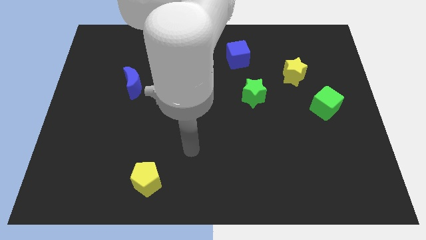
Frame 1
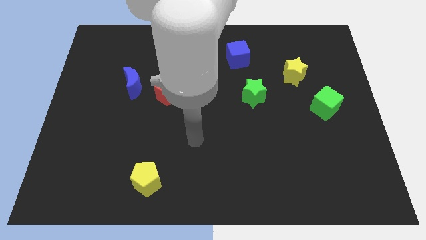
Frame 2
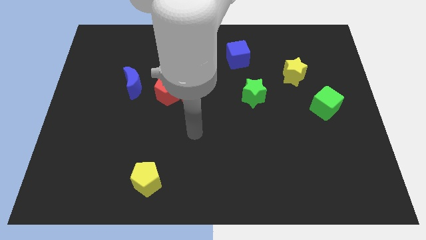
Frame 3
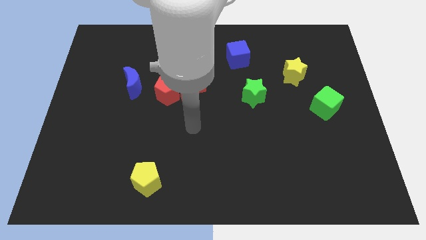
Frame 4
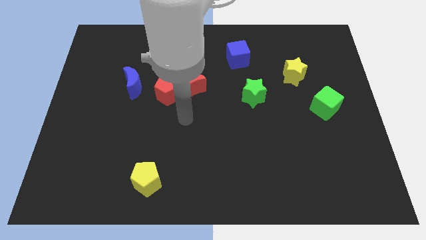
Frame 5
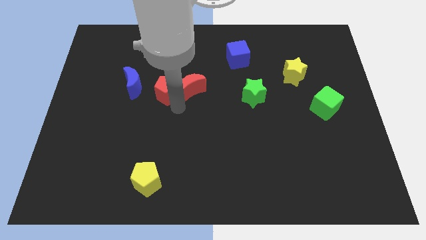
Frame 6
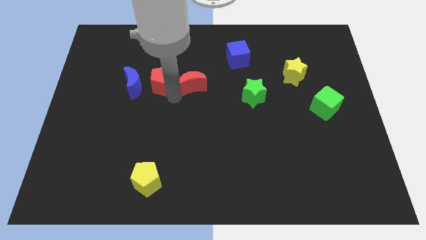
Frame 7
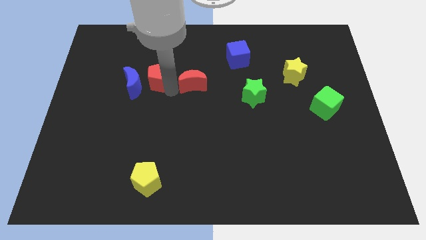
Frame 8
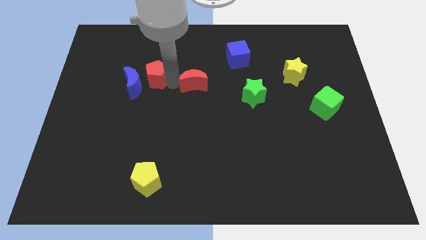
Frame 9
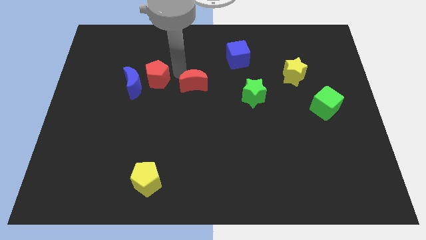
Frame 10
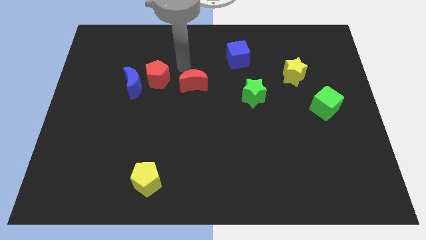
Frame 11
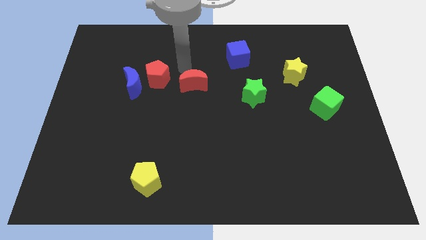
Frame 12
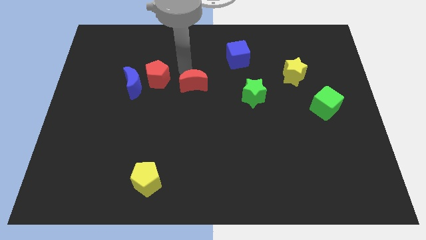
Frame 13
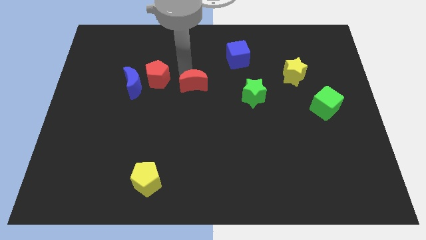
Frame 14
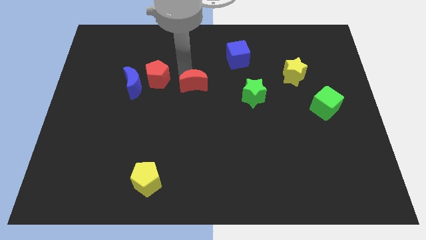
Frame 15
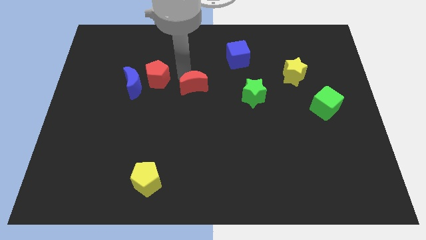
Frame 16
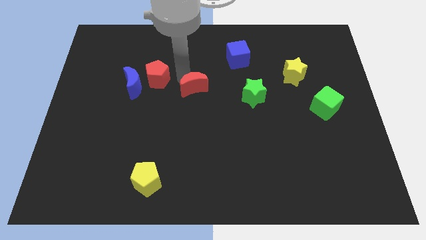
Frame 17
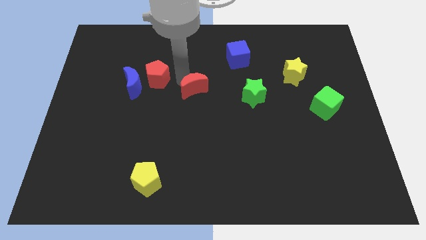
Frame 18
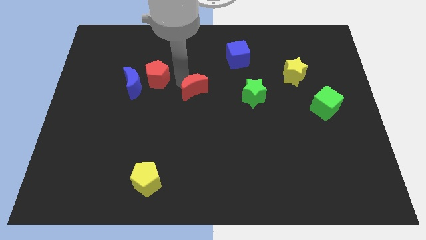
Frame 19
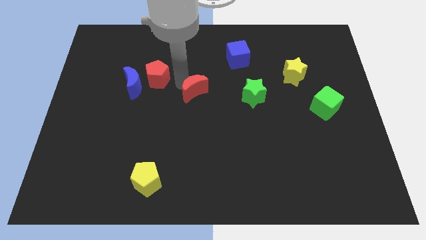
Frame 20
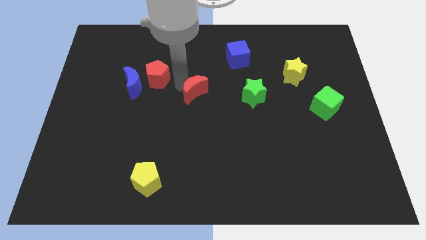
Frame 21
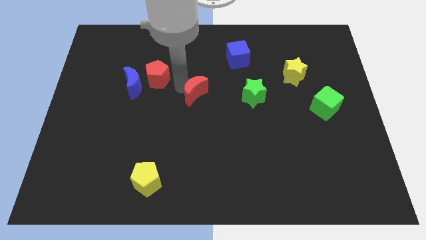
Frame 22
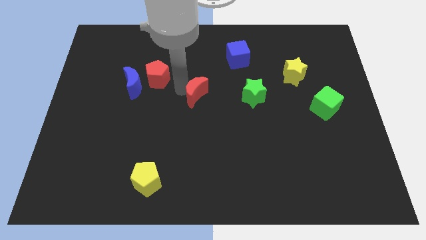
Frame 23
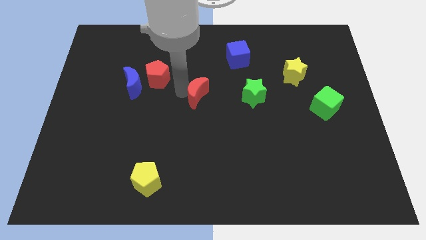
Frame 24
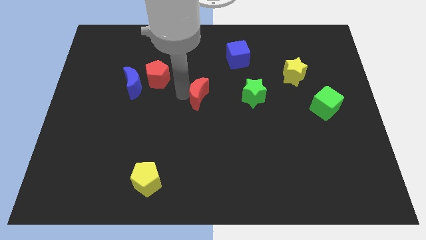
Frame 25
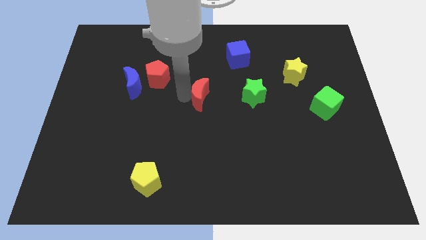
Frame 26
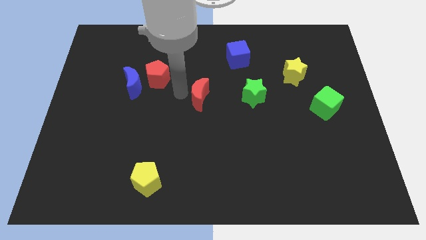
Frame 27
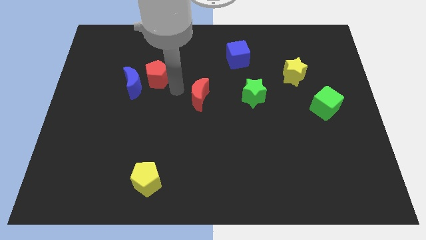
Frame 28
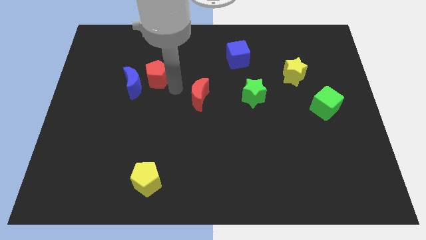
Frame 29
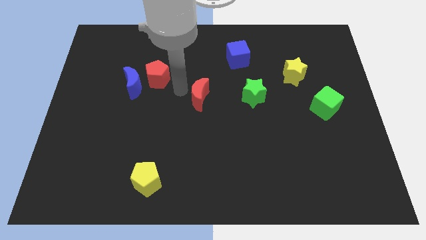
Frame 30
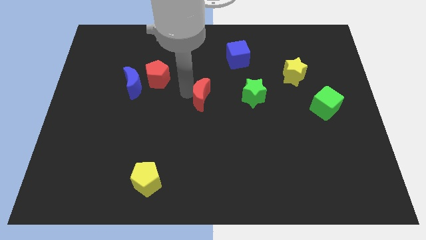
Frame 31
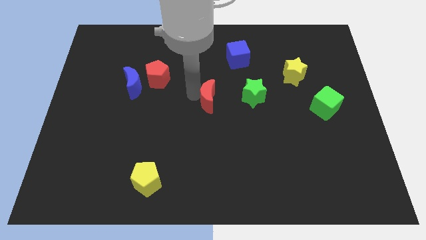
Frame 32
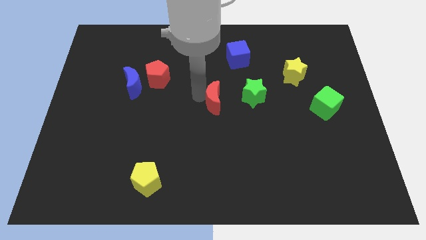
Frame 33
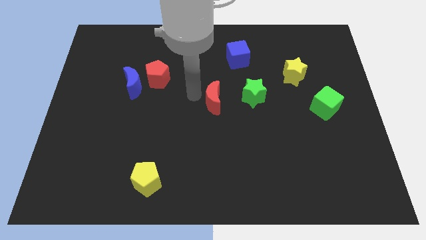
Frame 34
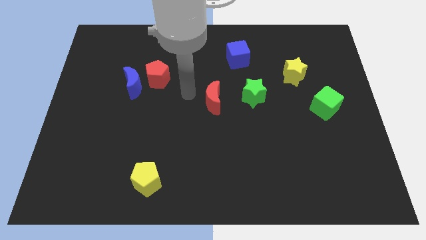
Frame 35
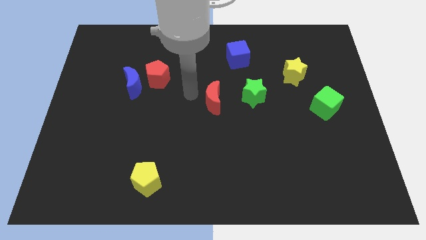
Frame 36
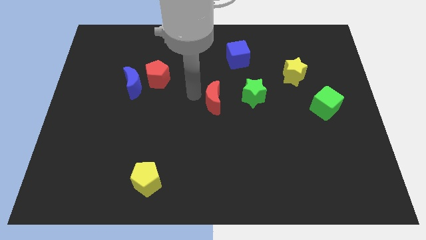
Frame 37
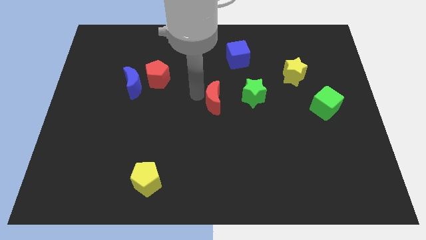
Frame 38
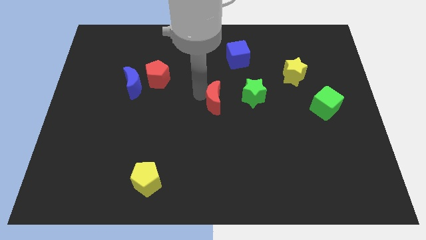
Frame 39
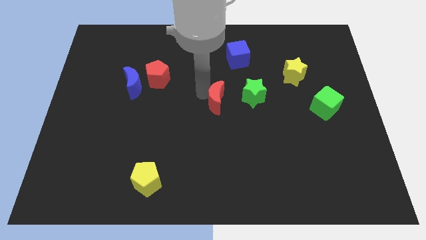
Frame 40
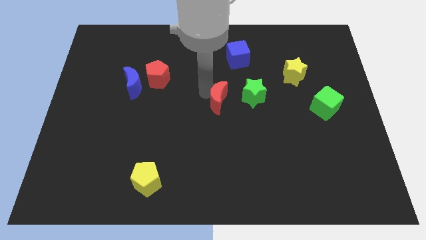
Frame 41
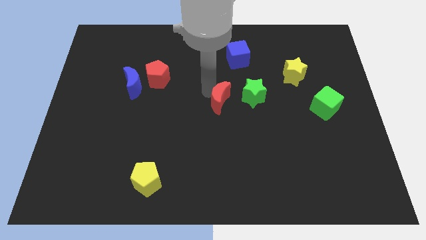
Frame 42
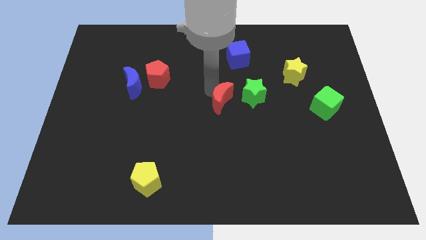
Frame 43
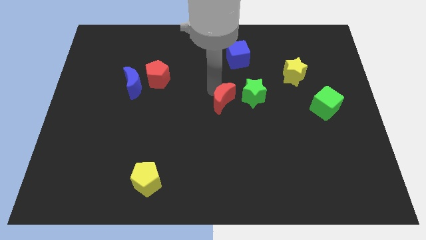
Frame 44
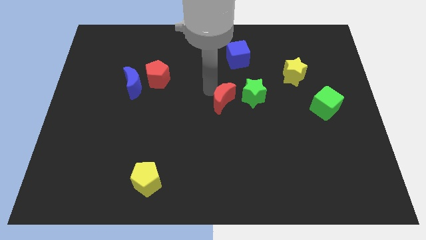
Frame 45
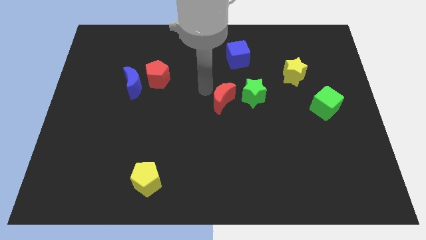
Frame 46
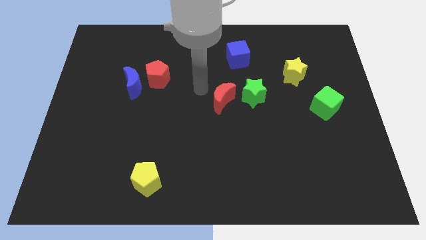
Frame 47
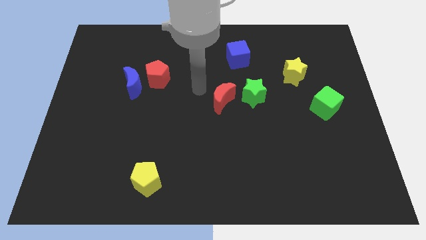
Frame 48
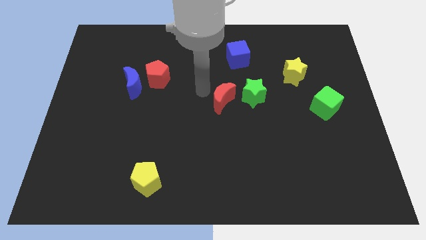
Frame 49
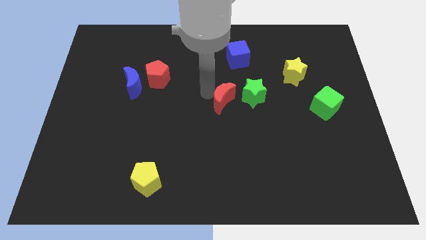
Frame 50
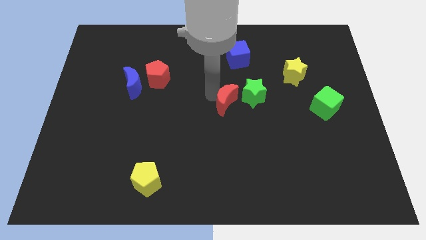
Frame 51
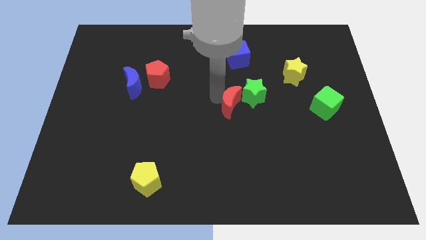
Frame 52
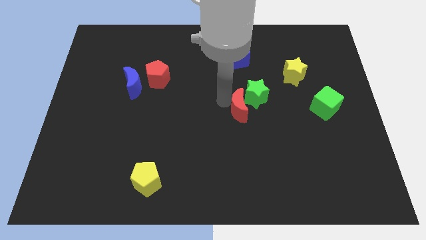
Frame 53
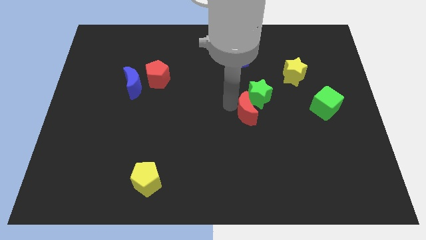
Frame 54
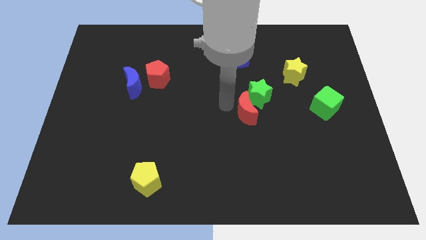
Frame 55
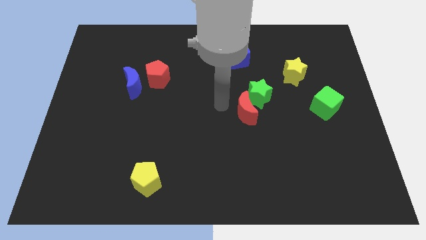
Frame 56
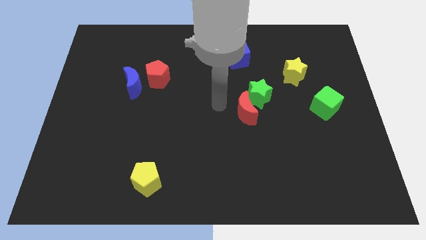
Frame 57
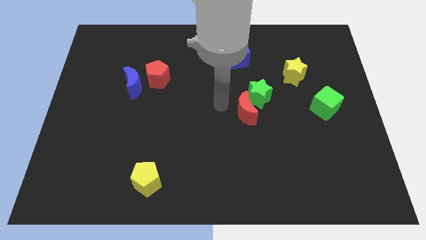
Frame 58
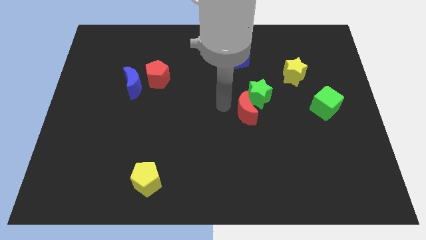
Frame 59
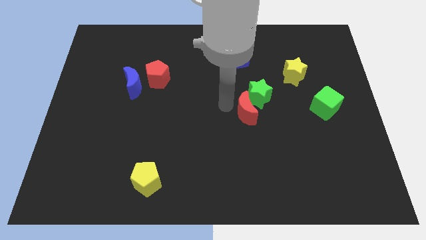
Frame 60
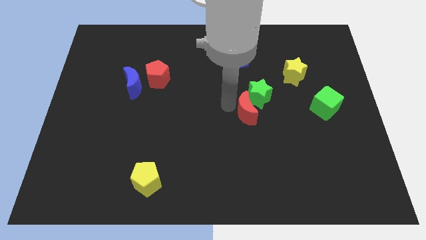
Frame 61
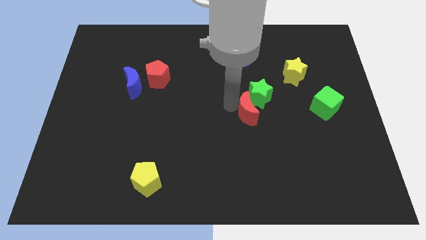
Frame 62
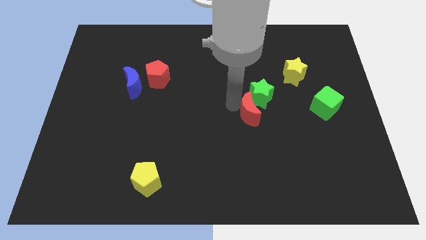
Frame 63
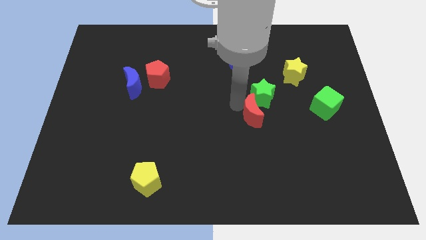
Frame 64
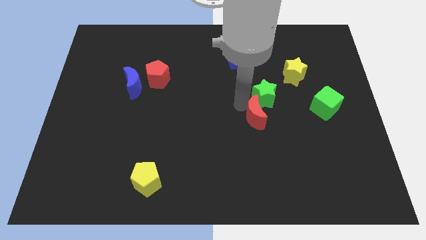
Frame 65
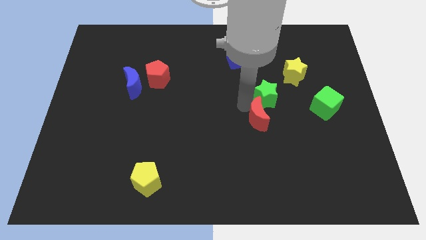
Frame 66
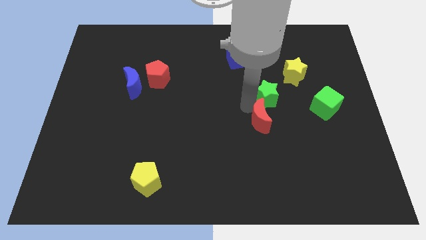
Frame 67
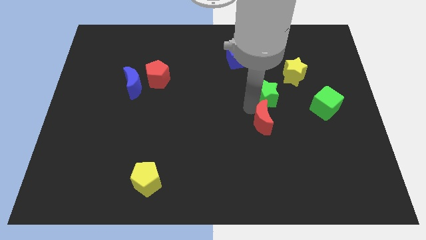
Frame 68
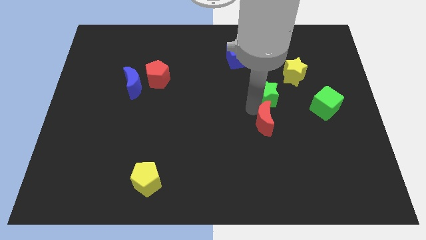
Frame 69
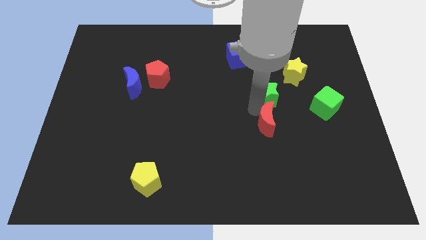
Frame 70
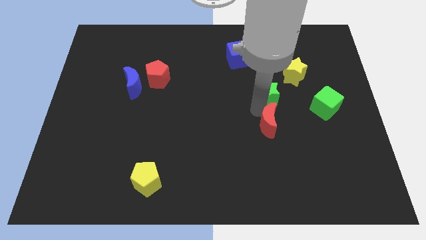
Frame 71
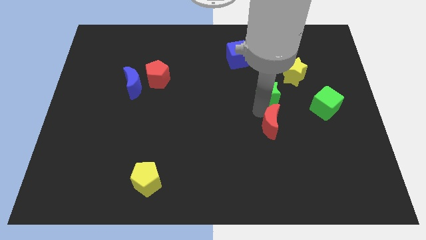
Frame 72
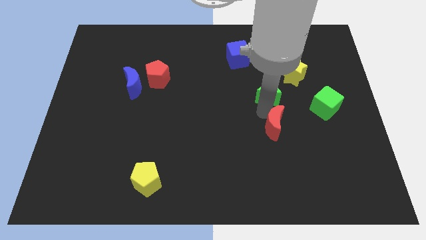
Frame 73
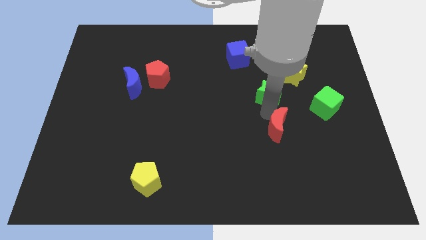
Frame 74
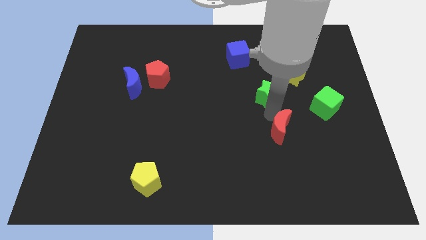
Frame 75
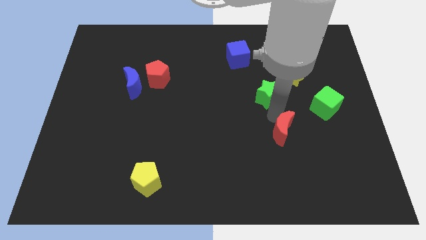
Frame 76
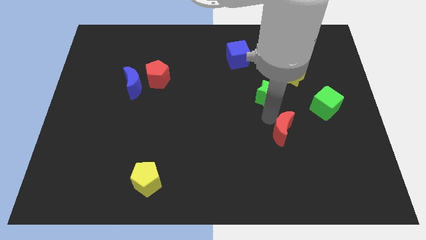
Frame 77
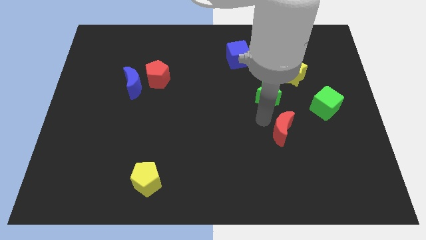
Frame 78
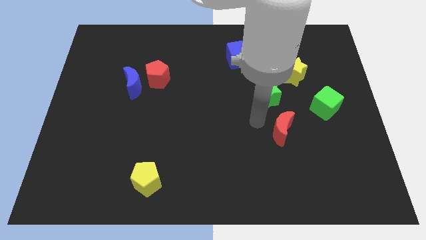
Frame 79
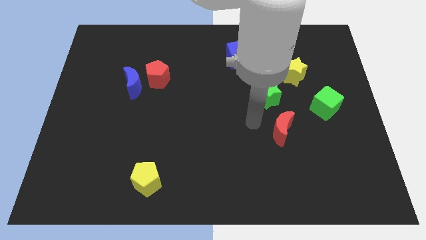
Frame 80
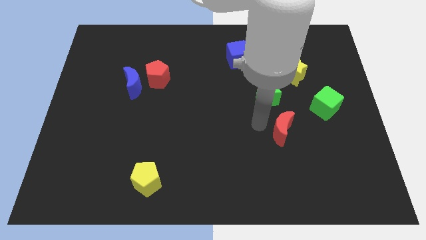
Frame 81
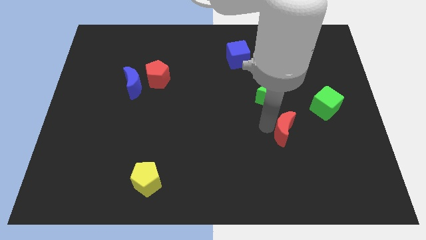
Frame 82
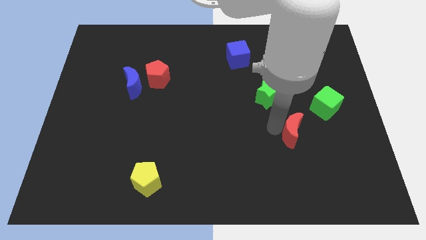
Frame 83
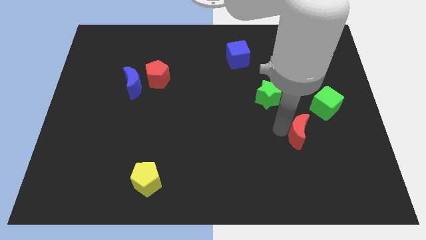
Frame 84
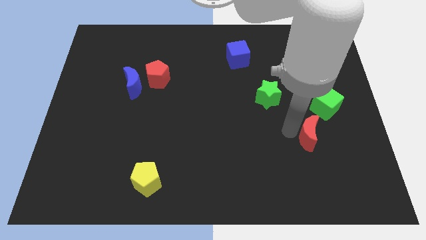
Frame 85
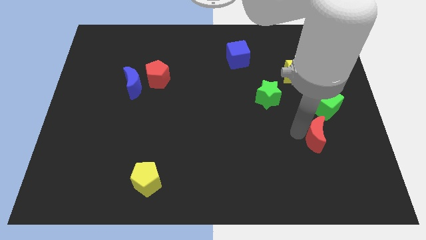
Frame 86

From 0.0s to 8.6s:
push the red moon to the bottom side of the green cube
